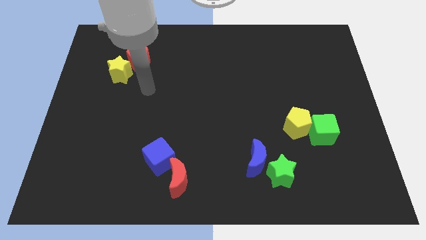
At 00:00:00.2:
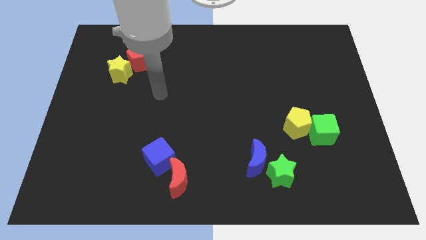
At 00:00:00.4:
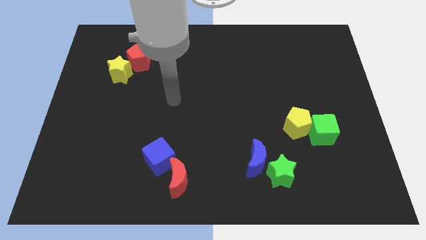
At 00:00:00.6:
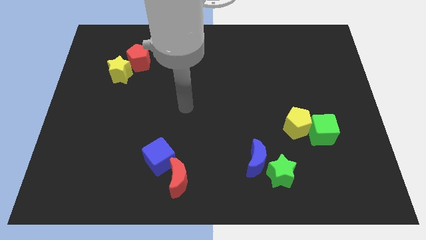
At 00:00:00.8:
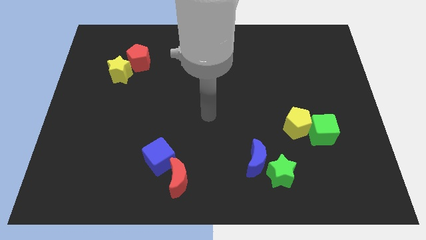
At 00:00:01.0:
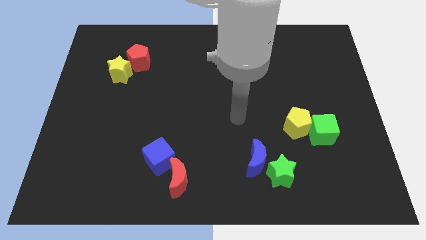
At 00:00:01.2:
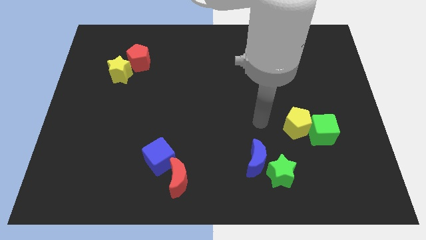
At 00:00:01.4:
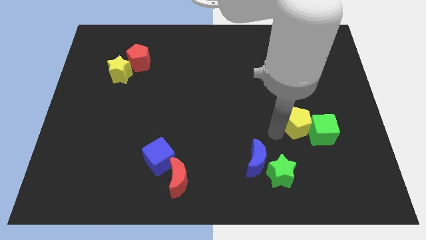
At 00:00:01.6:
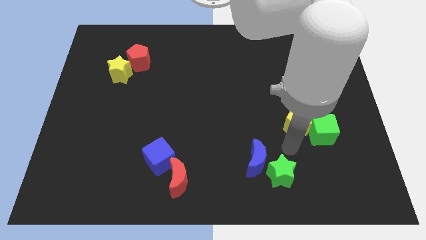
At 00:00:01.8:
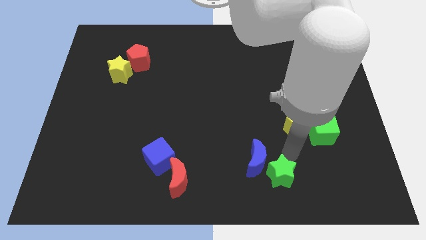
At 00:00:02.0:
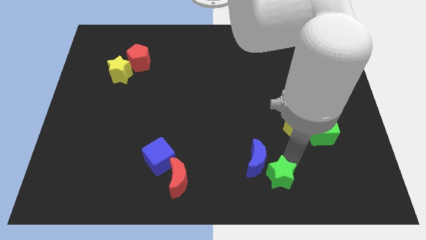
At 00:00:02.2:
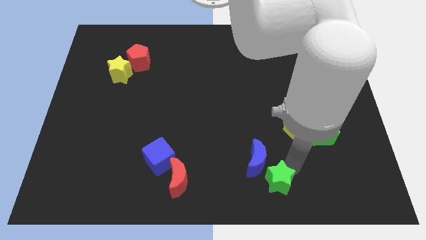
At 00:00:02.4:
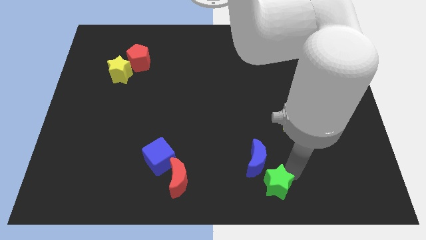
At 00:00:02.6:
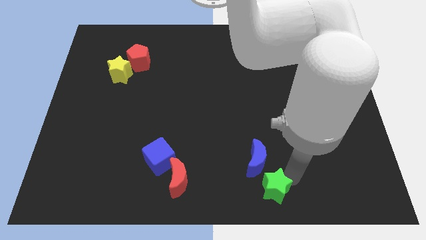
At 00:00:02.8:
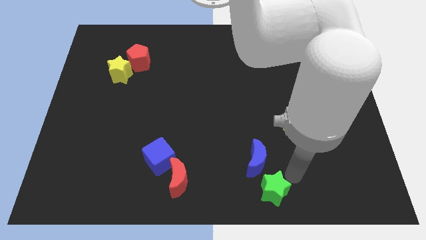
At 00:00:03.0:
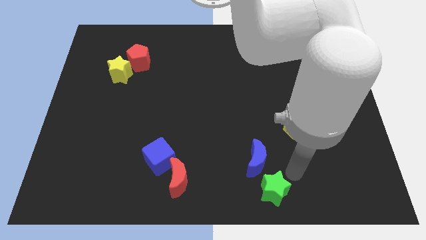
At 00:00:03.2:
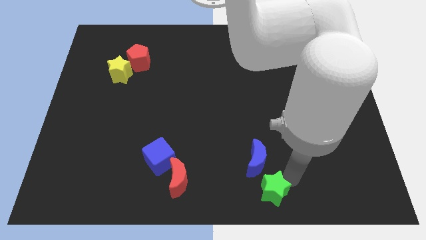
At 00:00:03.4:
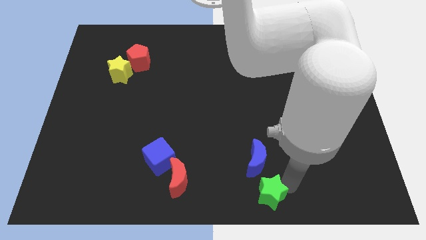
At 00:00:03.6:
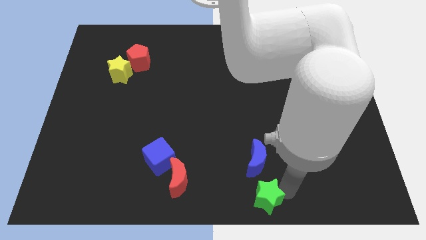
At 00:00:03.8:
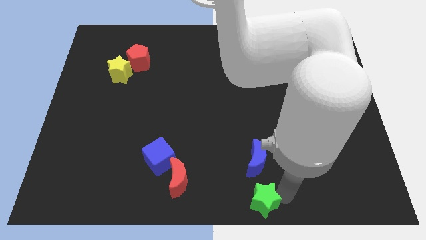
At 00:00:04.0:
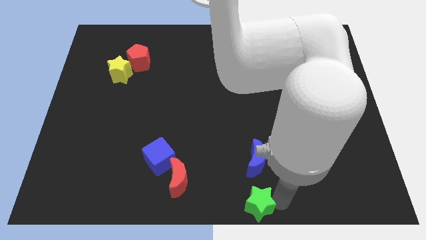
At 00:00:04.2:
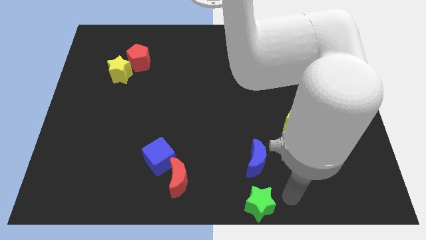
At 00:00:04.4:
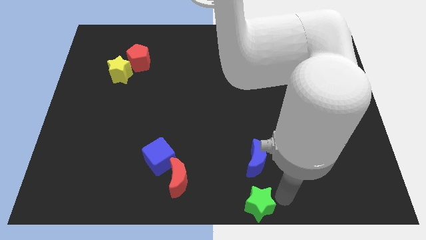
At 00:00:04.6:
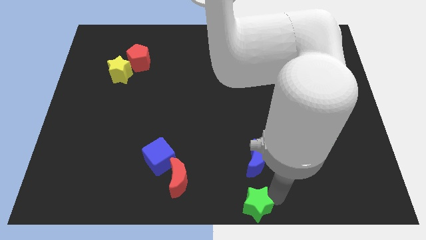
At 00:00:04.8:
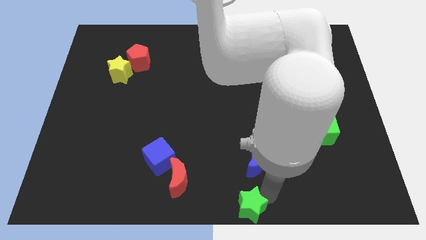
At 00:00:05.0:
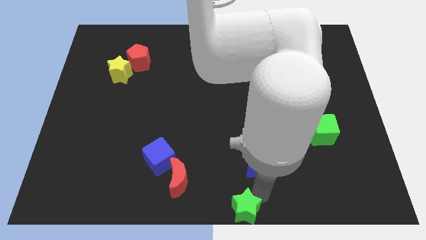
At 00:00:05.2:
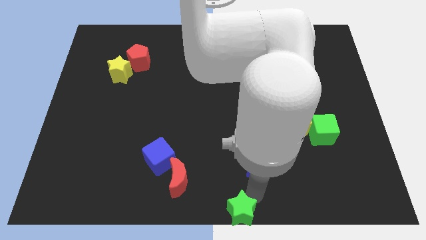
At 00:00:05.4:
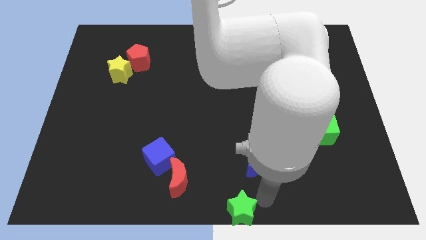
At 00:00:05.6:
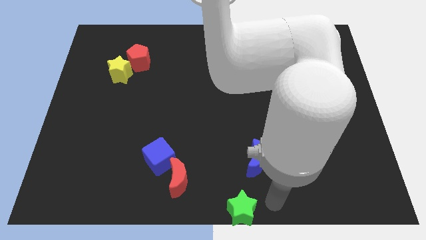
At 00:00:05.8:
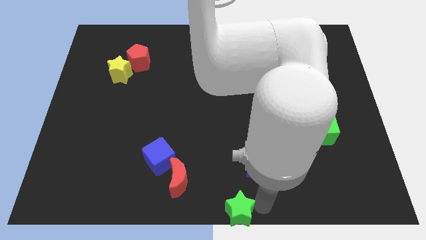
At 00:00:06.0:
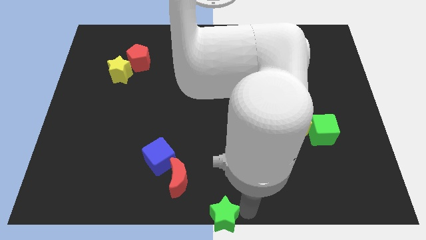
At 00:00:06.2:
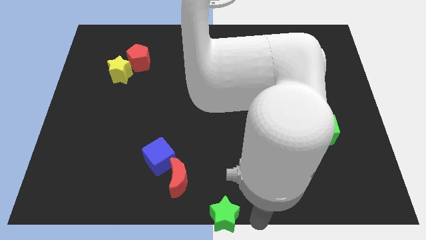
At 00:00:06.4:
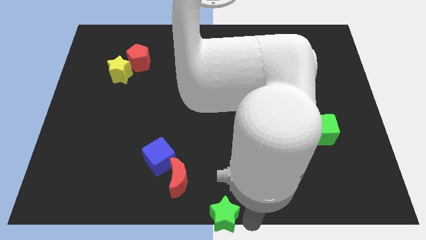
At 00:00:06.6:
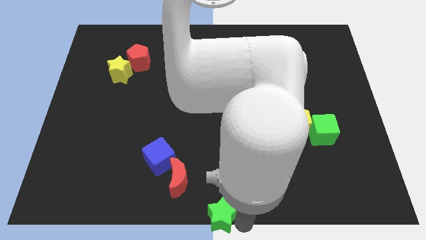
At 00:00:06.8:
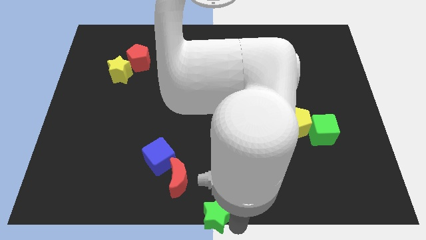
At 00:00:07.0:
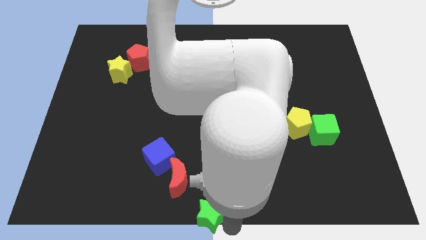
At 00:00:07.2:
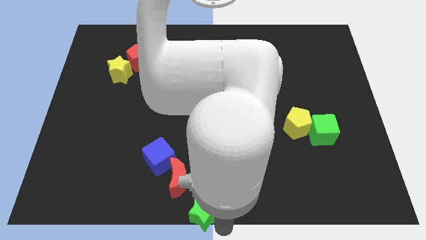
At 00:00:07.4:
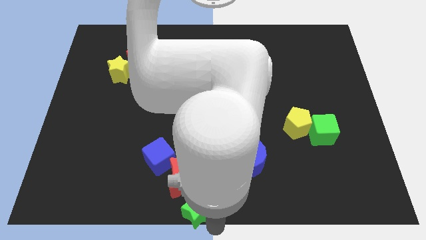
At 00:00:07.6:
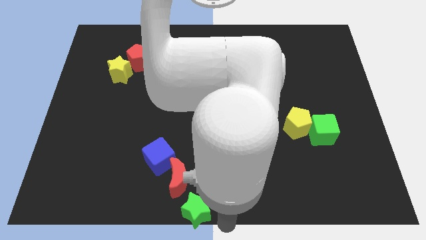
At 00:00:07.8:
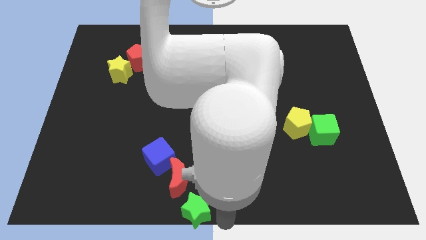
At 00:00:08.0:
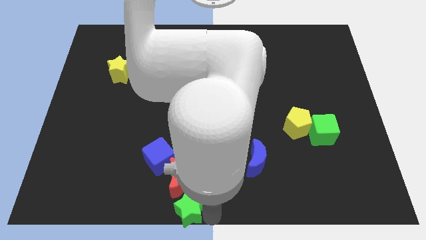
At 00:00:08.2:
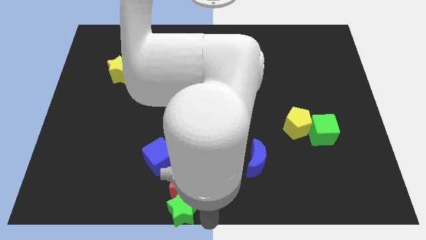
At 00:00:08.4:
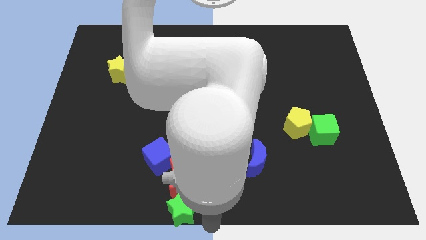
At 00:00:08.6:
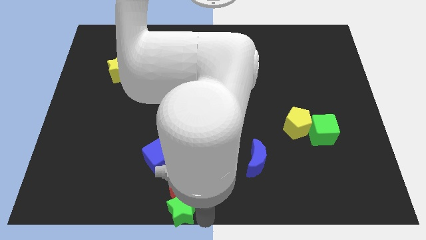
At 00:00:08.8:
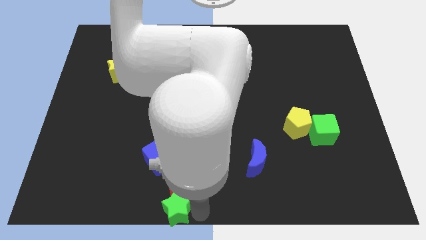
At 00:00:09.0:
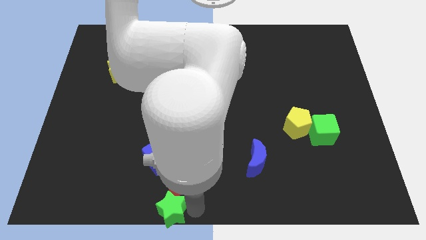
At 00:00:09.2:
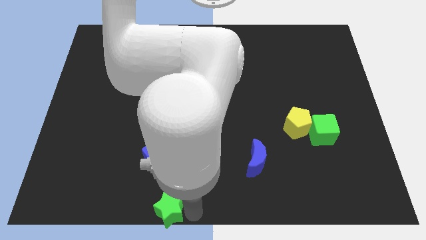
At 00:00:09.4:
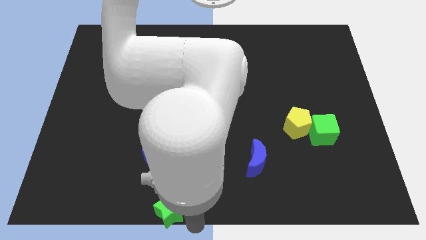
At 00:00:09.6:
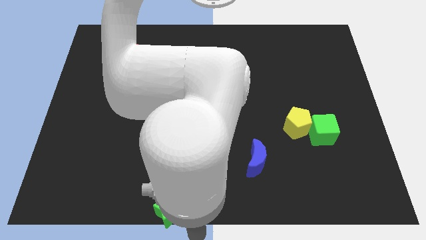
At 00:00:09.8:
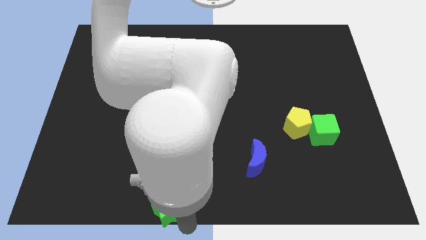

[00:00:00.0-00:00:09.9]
move the green star left

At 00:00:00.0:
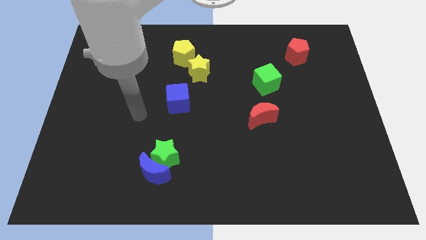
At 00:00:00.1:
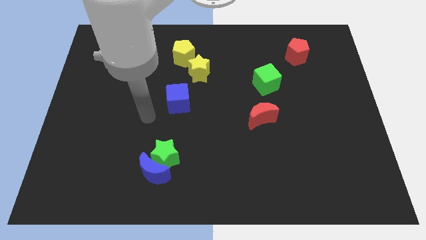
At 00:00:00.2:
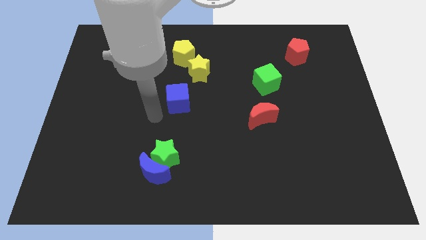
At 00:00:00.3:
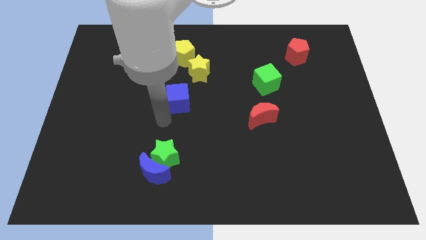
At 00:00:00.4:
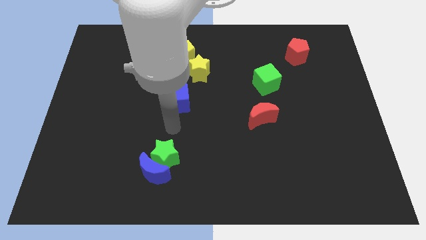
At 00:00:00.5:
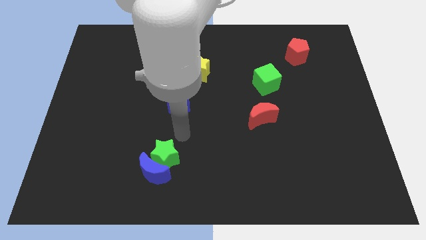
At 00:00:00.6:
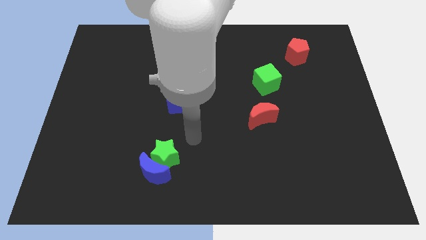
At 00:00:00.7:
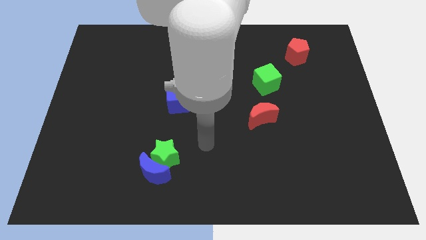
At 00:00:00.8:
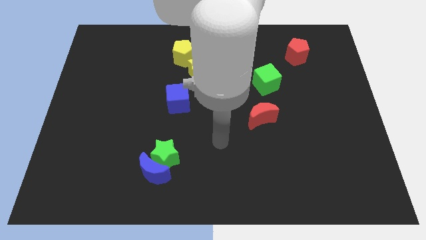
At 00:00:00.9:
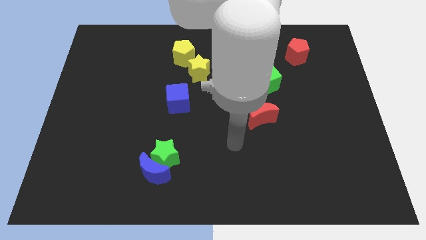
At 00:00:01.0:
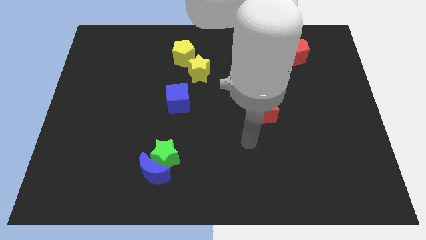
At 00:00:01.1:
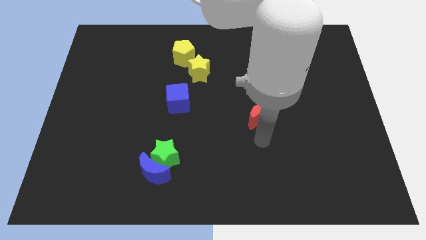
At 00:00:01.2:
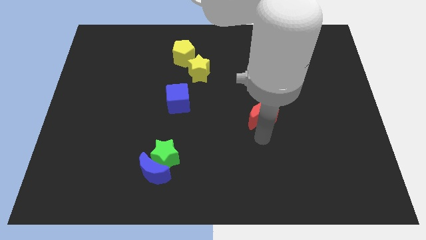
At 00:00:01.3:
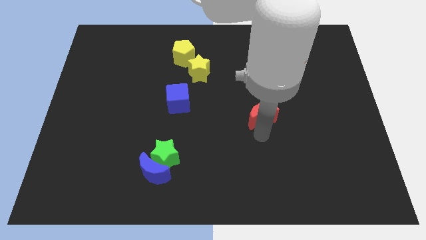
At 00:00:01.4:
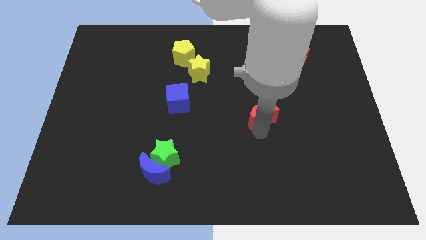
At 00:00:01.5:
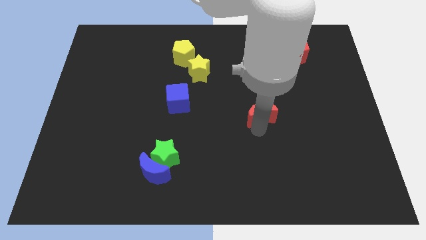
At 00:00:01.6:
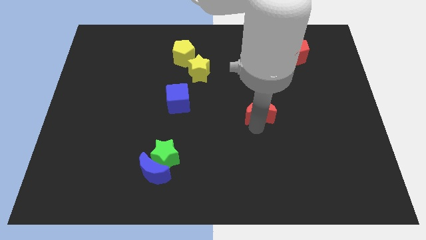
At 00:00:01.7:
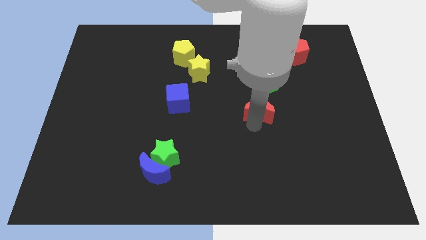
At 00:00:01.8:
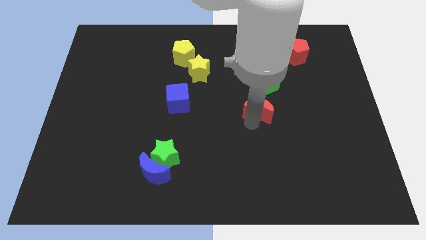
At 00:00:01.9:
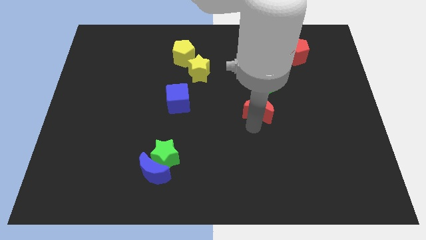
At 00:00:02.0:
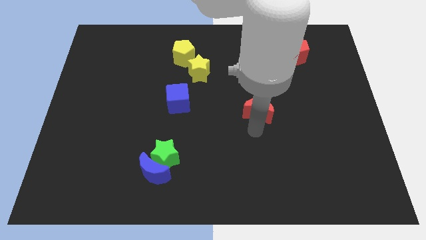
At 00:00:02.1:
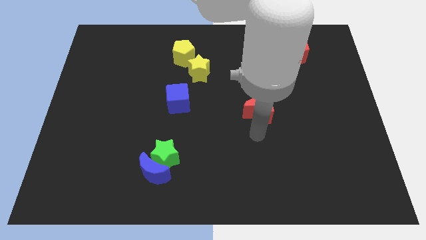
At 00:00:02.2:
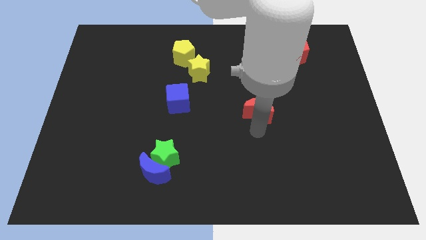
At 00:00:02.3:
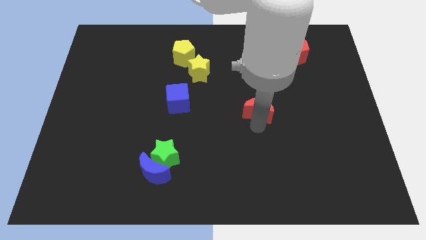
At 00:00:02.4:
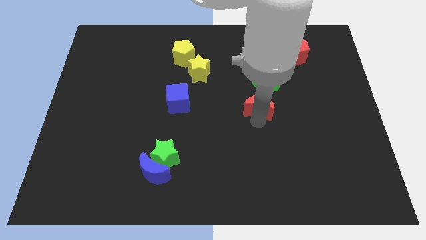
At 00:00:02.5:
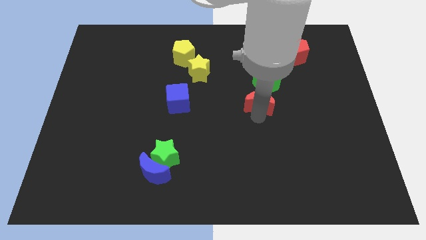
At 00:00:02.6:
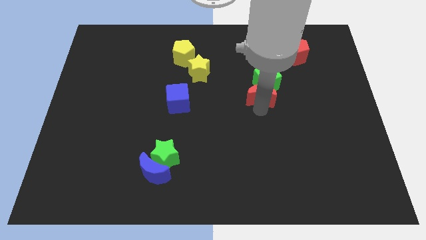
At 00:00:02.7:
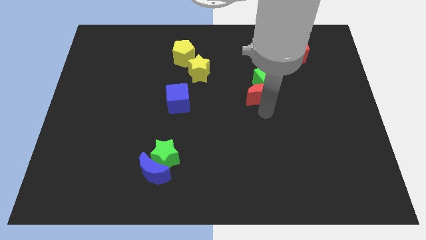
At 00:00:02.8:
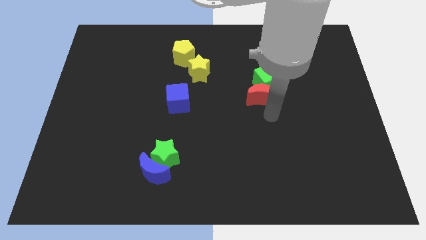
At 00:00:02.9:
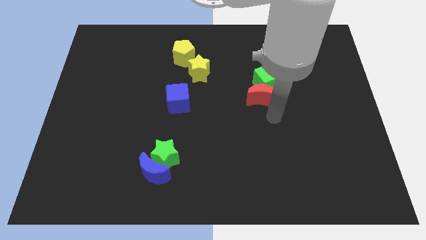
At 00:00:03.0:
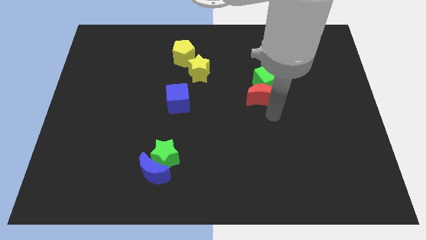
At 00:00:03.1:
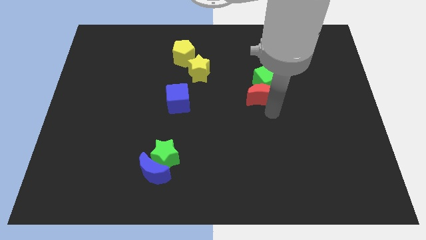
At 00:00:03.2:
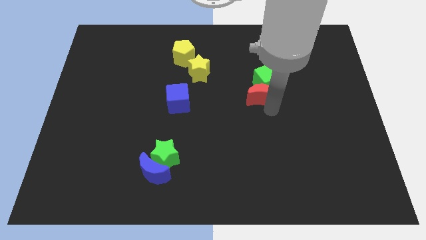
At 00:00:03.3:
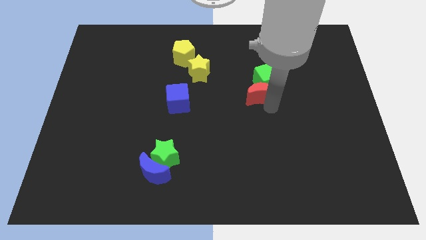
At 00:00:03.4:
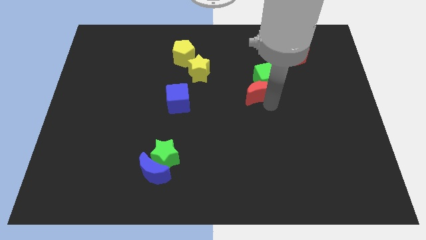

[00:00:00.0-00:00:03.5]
move the red moon slightly up
